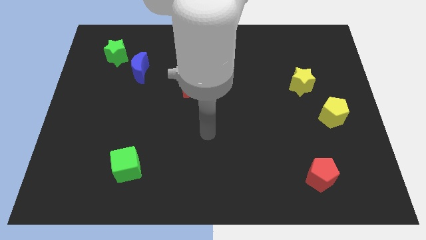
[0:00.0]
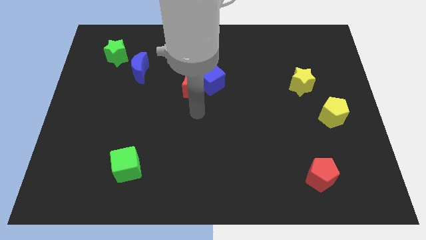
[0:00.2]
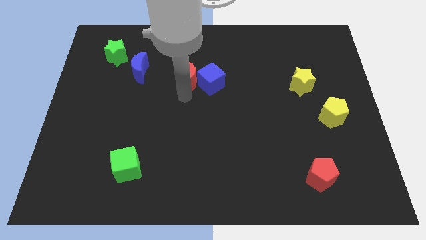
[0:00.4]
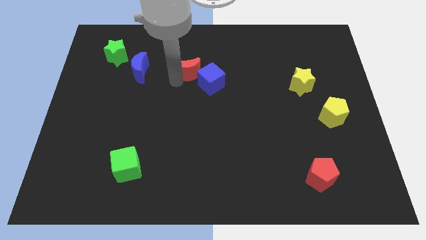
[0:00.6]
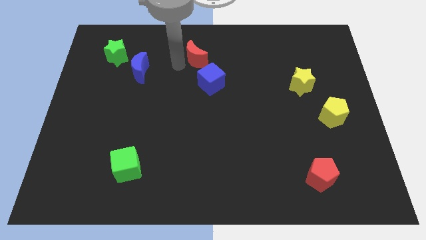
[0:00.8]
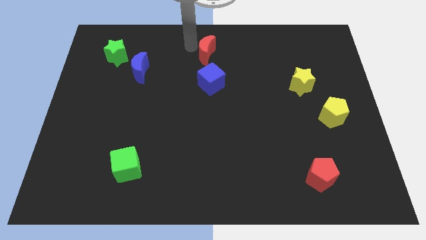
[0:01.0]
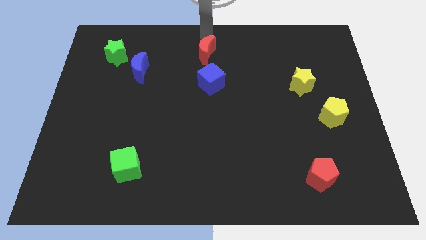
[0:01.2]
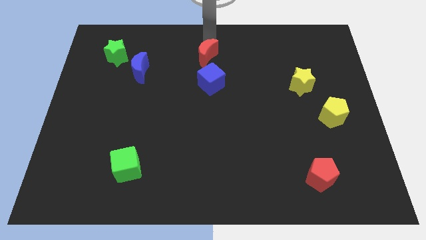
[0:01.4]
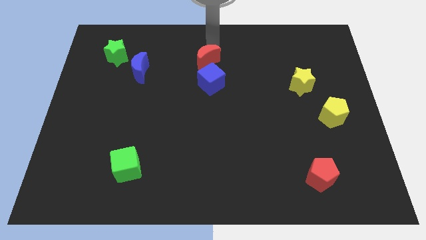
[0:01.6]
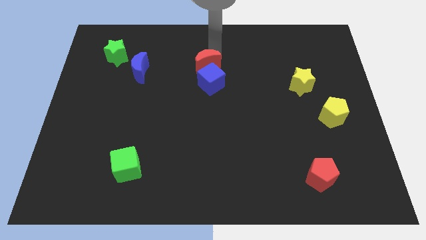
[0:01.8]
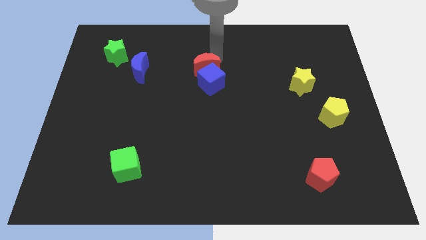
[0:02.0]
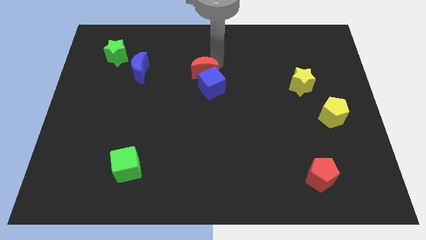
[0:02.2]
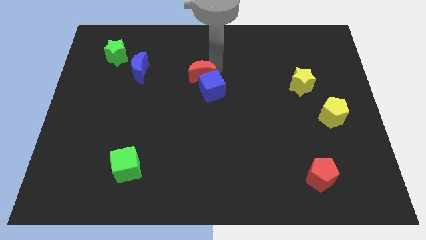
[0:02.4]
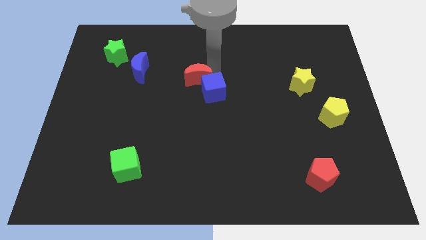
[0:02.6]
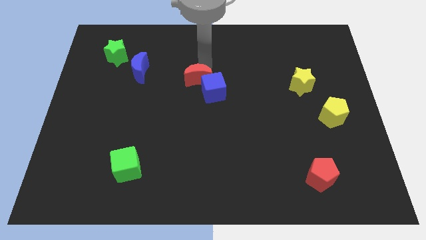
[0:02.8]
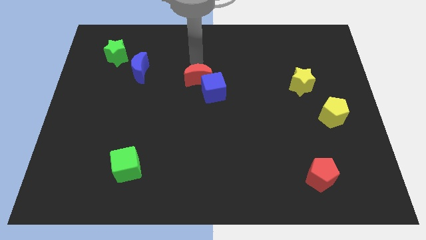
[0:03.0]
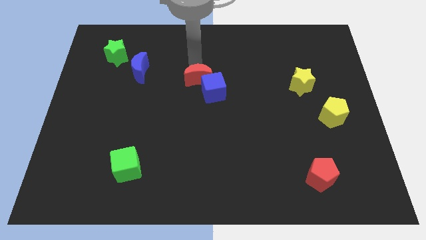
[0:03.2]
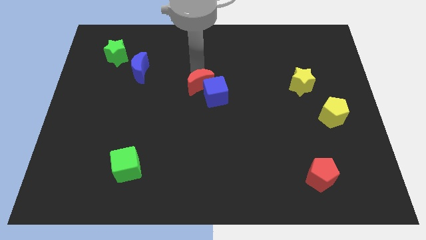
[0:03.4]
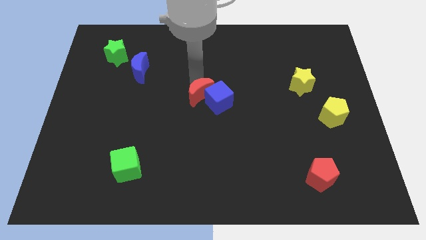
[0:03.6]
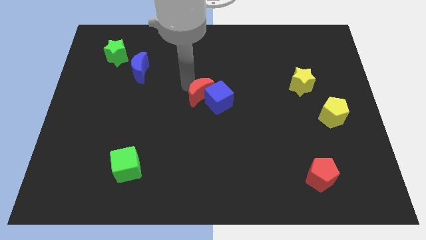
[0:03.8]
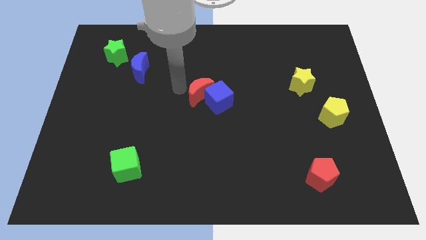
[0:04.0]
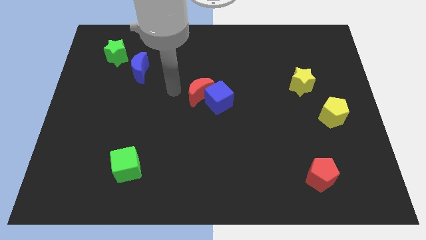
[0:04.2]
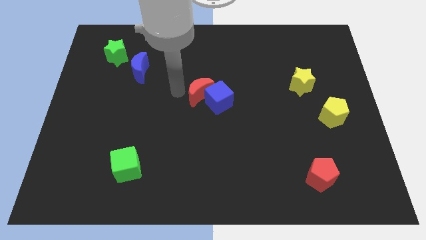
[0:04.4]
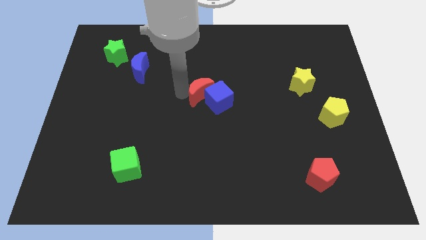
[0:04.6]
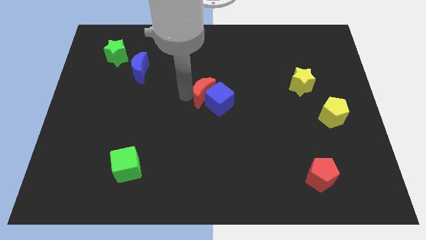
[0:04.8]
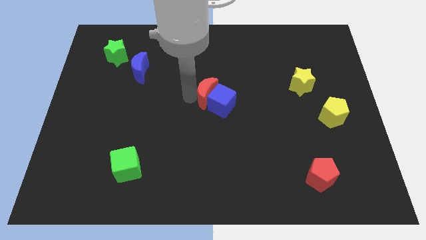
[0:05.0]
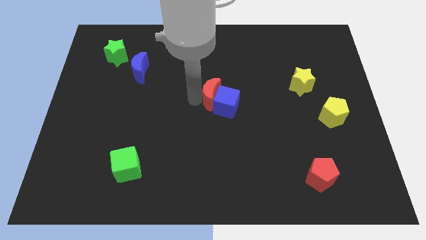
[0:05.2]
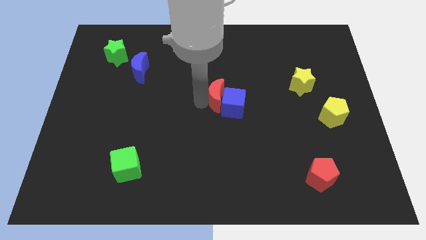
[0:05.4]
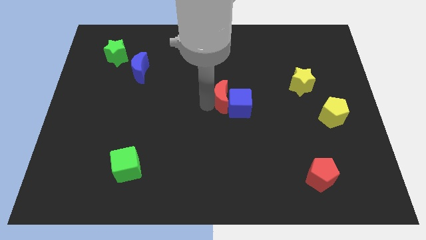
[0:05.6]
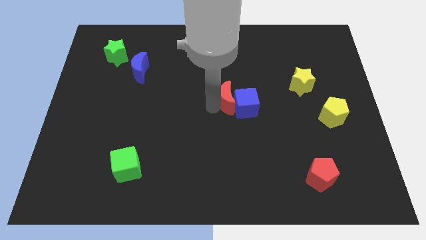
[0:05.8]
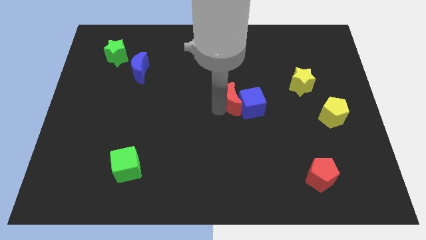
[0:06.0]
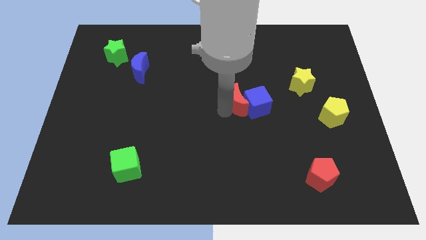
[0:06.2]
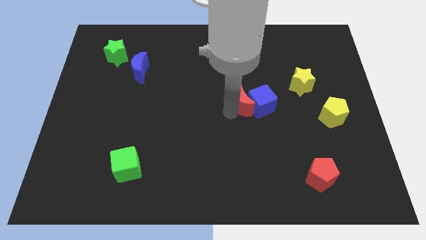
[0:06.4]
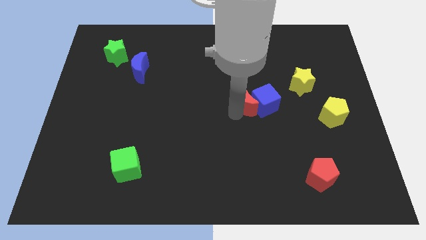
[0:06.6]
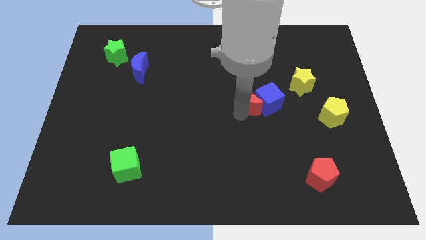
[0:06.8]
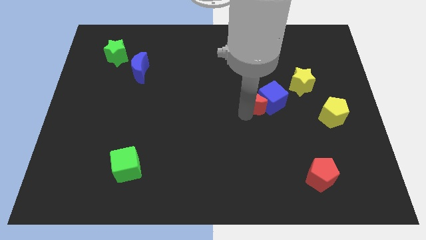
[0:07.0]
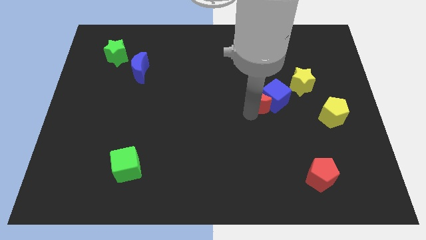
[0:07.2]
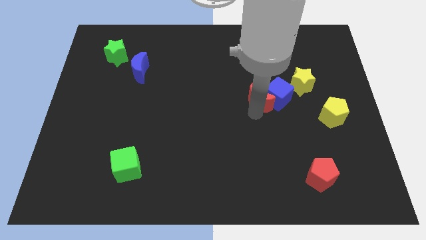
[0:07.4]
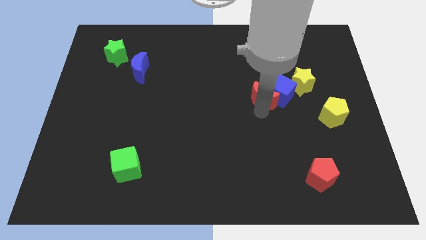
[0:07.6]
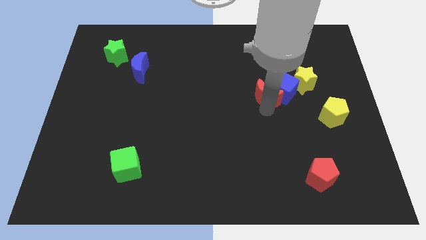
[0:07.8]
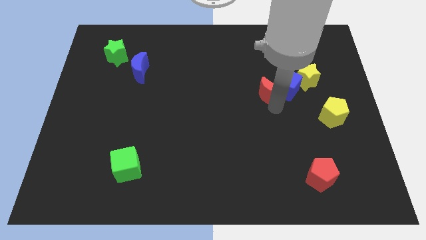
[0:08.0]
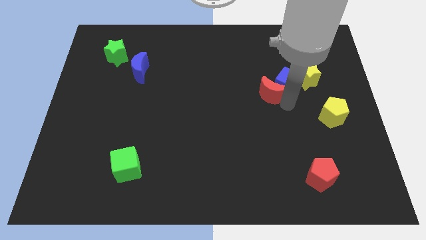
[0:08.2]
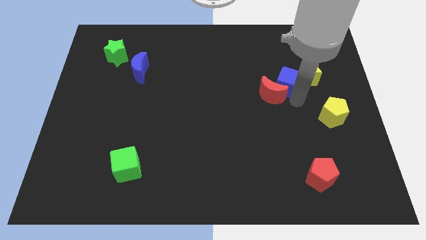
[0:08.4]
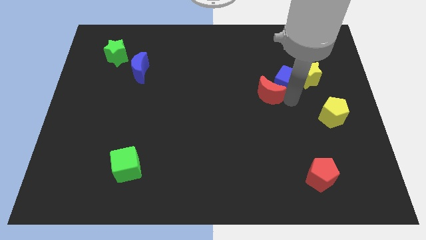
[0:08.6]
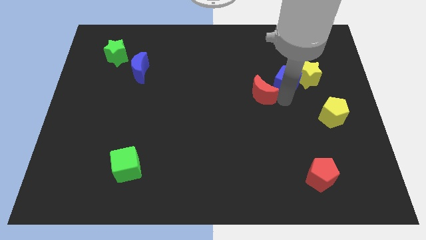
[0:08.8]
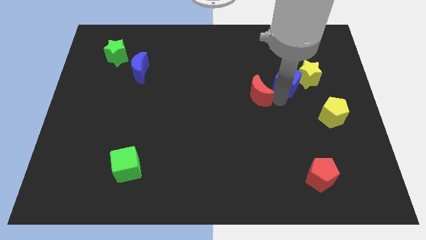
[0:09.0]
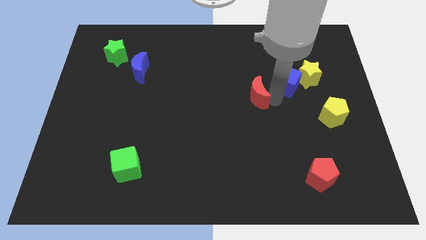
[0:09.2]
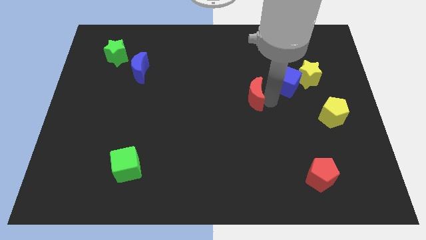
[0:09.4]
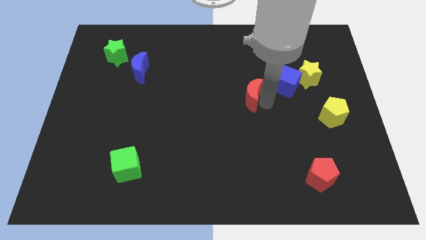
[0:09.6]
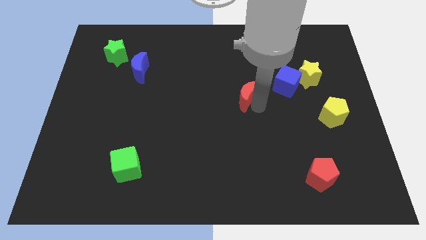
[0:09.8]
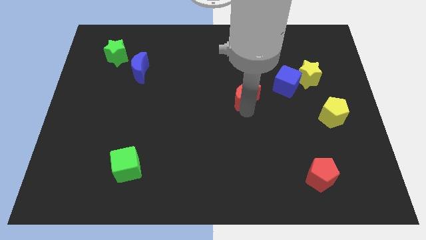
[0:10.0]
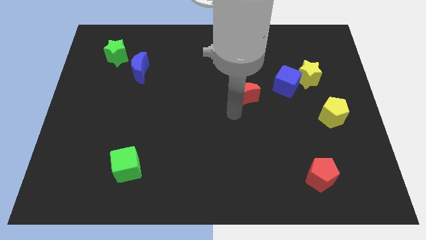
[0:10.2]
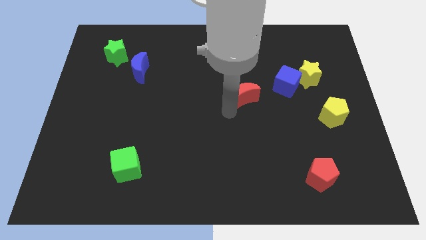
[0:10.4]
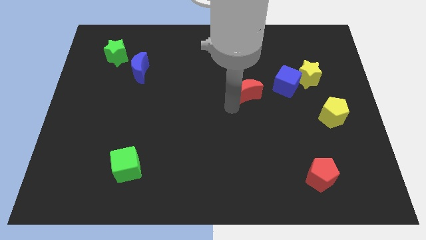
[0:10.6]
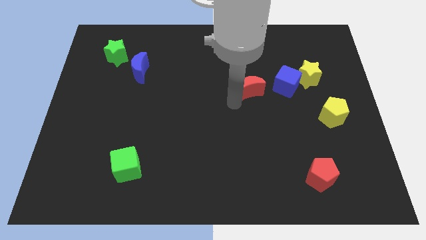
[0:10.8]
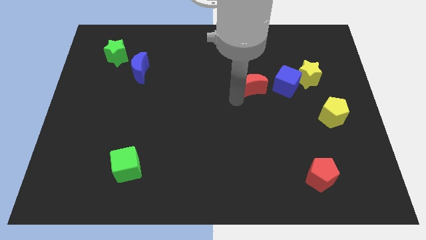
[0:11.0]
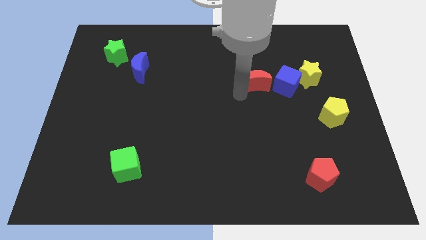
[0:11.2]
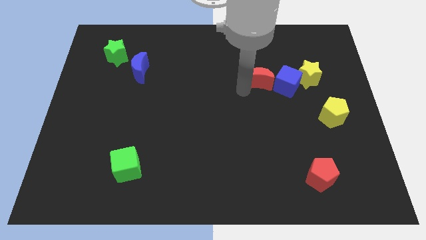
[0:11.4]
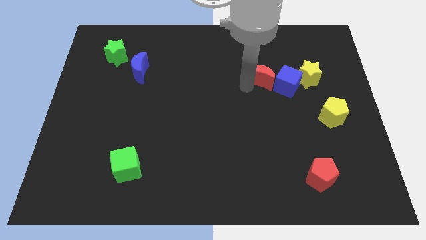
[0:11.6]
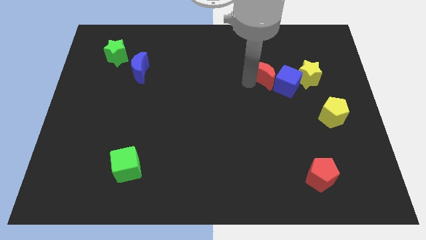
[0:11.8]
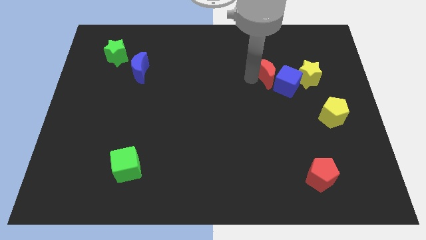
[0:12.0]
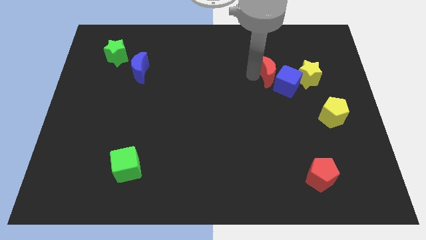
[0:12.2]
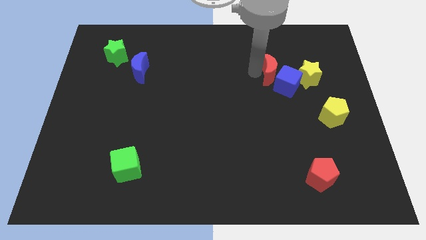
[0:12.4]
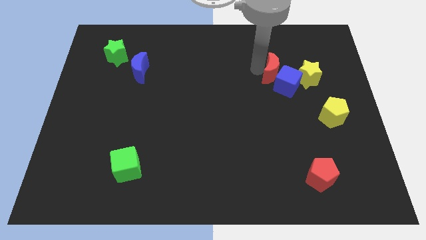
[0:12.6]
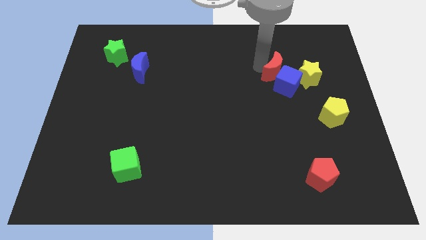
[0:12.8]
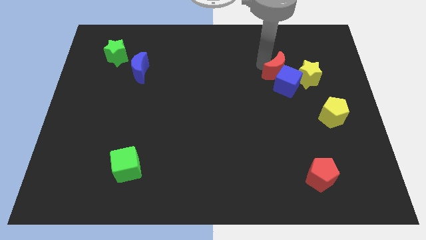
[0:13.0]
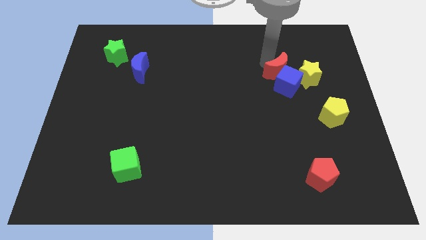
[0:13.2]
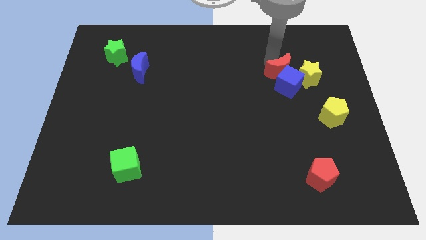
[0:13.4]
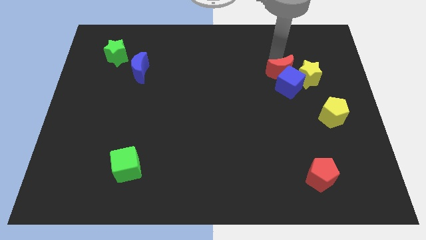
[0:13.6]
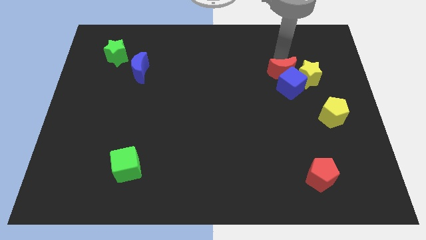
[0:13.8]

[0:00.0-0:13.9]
slide the red moon next to the yellow star
